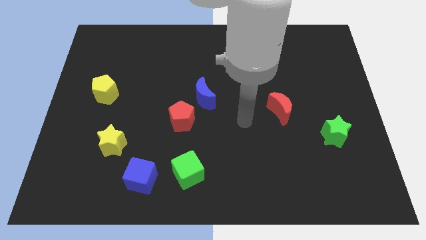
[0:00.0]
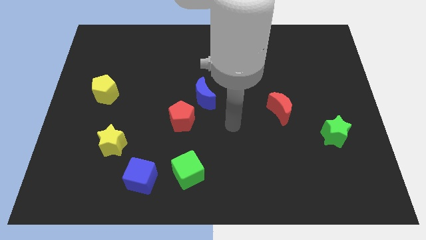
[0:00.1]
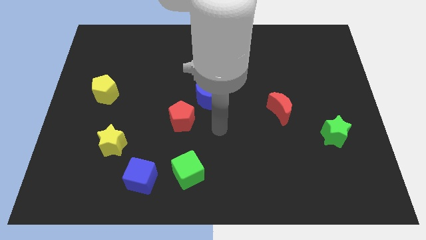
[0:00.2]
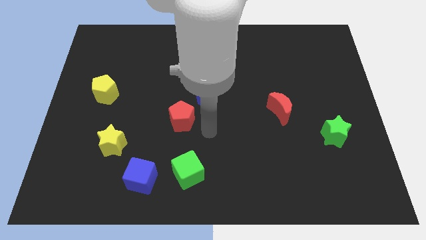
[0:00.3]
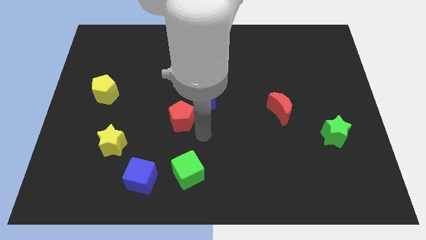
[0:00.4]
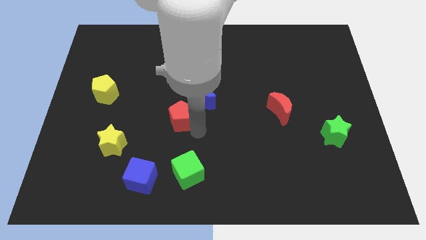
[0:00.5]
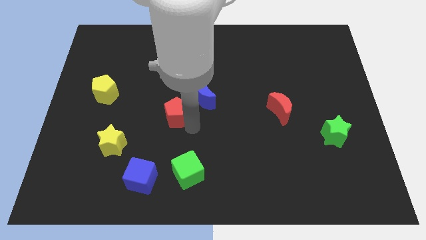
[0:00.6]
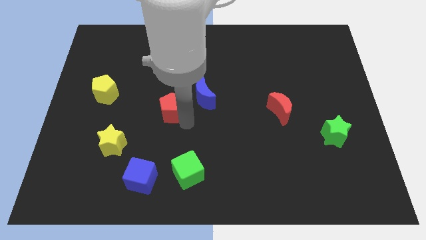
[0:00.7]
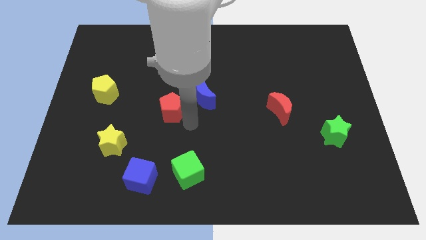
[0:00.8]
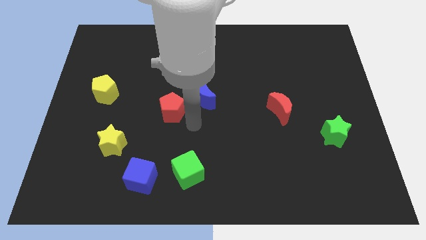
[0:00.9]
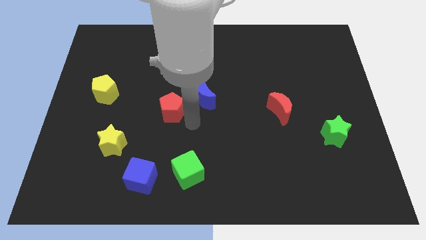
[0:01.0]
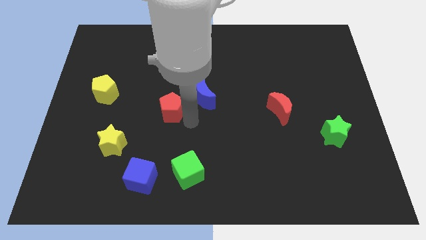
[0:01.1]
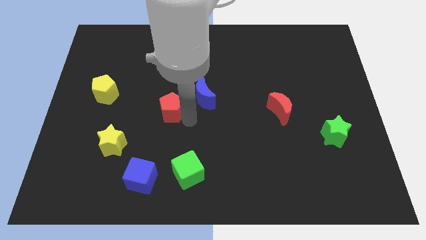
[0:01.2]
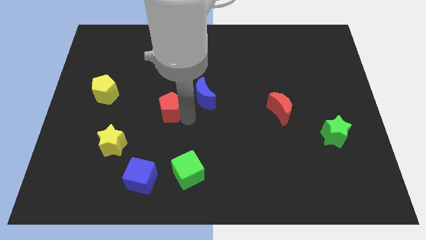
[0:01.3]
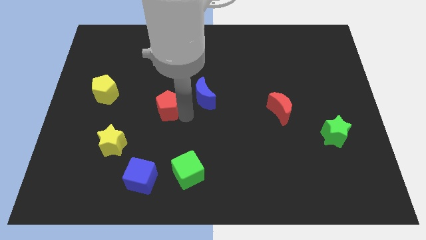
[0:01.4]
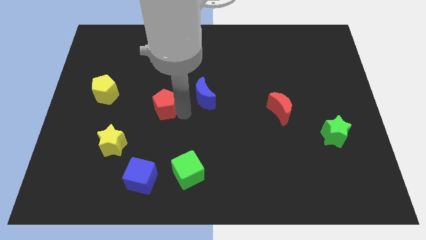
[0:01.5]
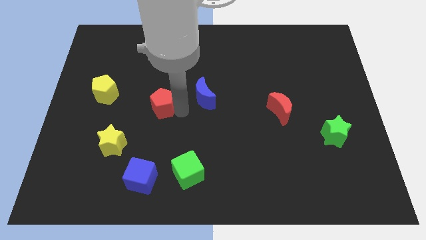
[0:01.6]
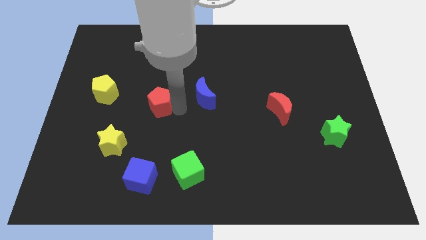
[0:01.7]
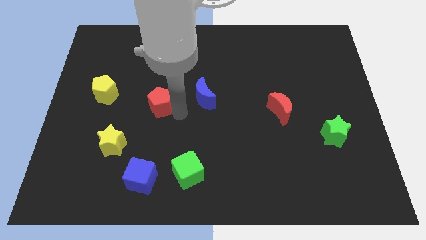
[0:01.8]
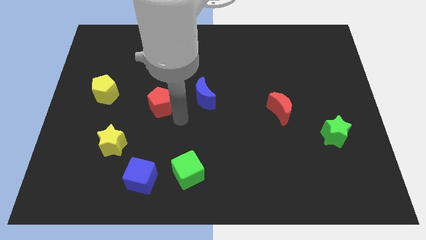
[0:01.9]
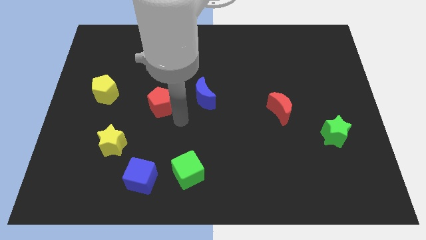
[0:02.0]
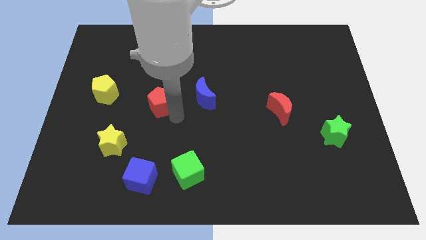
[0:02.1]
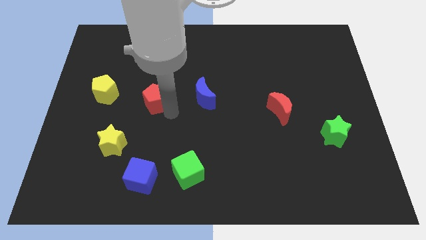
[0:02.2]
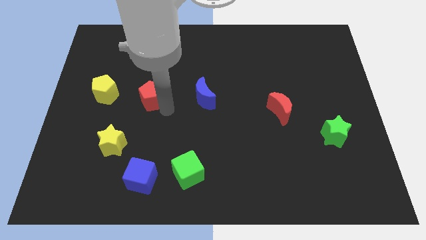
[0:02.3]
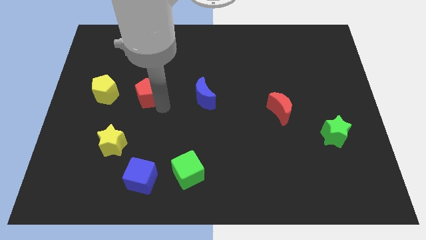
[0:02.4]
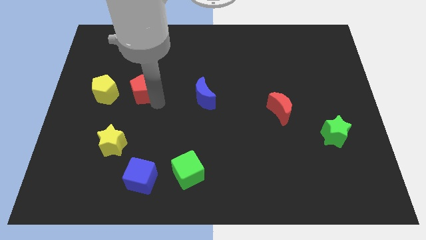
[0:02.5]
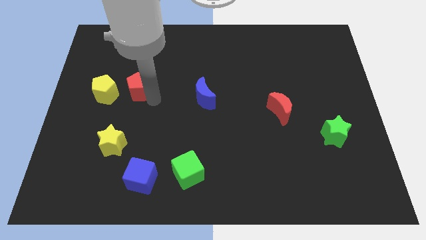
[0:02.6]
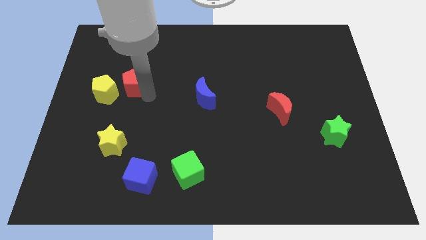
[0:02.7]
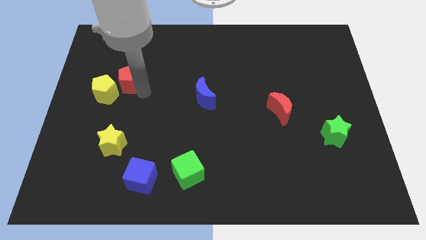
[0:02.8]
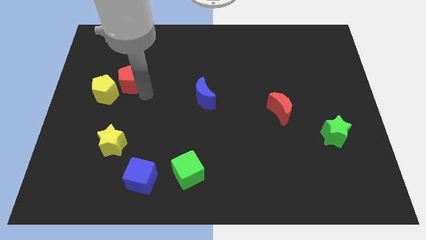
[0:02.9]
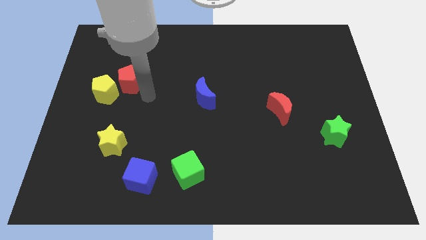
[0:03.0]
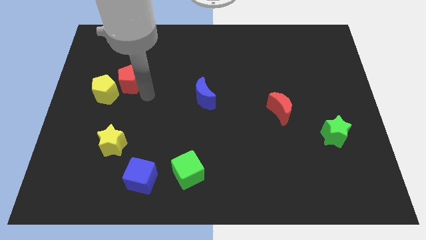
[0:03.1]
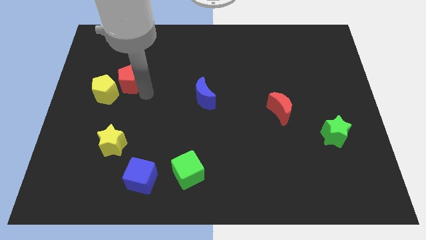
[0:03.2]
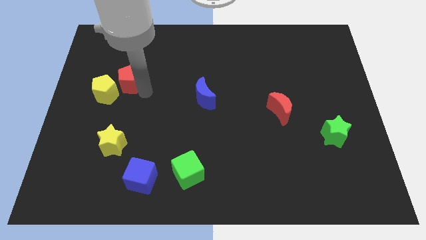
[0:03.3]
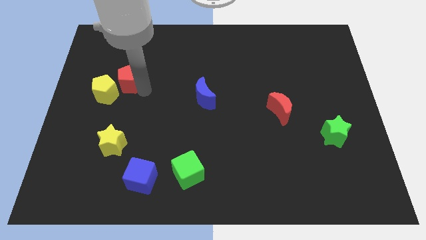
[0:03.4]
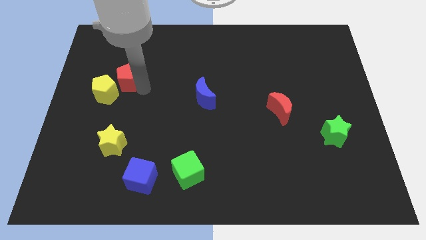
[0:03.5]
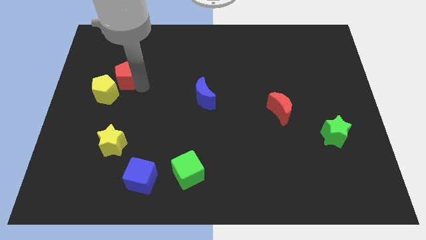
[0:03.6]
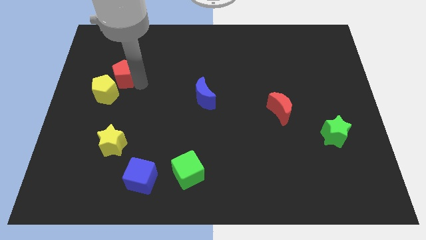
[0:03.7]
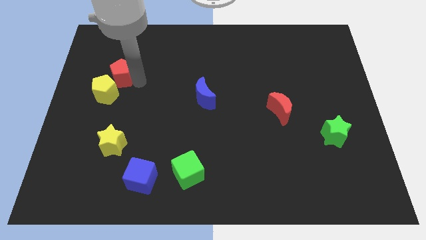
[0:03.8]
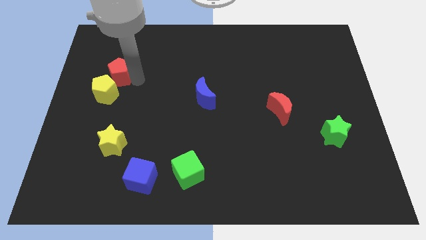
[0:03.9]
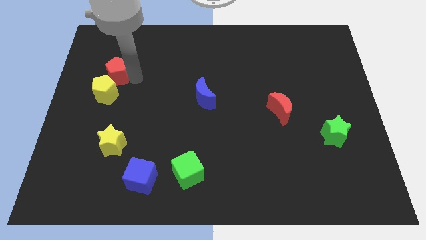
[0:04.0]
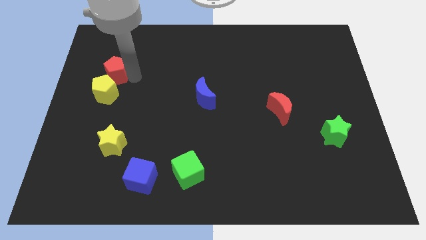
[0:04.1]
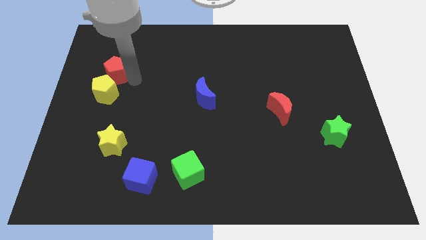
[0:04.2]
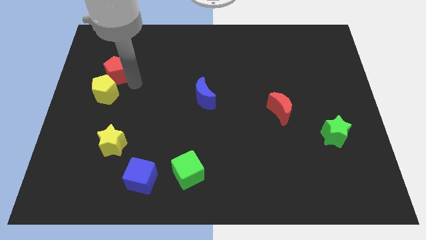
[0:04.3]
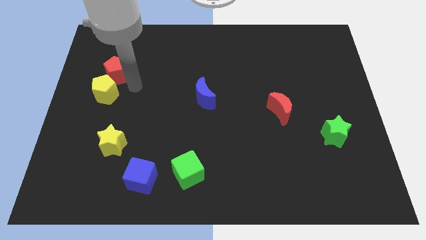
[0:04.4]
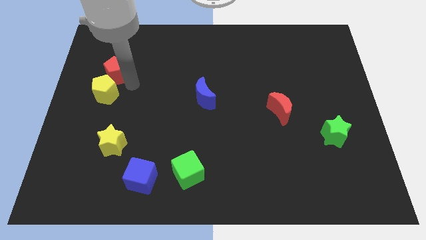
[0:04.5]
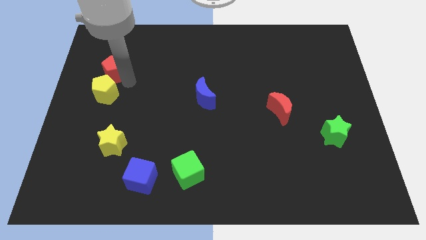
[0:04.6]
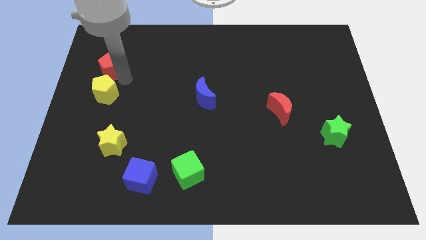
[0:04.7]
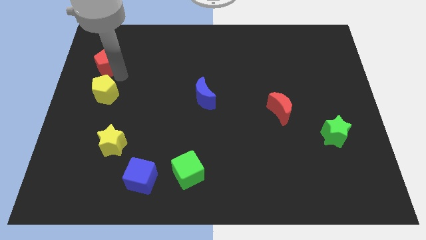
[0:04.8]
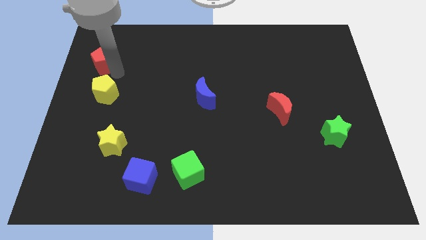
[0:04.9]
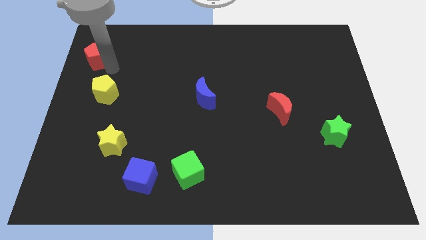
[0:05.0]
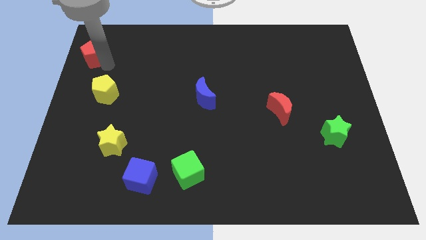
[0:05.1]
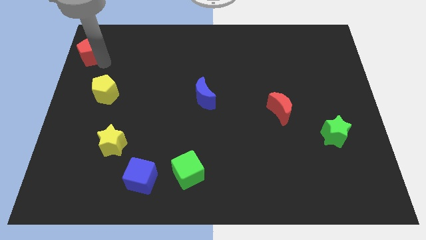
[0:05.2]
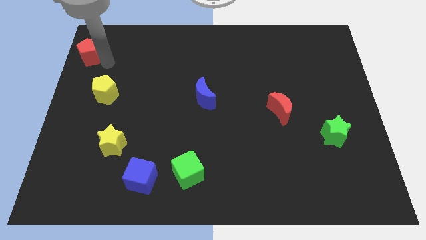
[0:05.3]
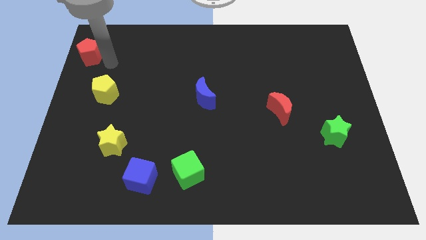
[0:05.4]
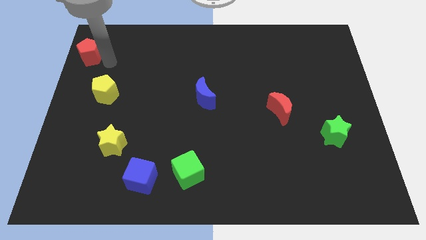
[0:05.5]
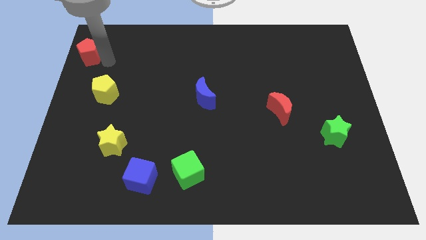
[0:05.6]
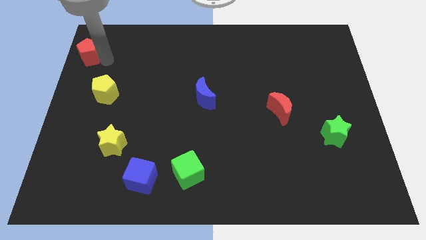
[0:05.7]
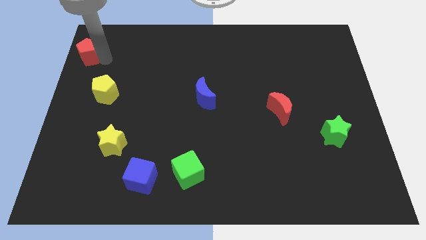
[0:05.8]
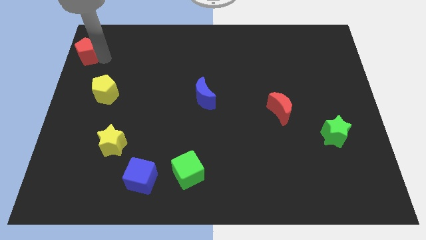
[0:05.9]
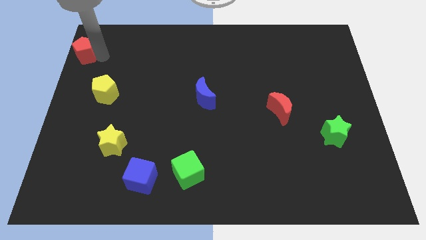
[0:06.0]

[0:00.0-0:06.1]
slide the red pentagon to the top left of the board
